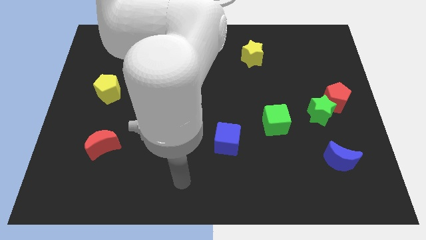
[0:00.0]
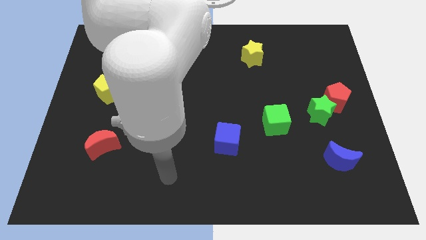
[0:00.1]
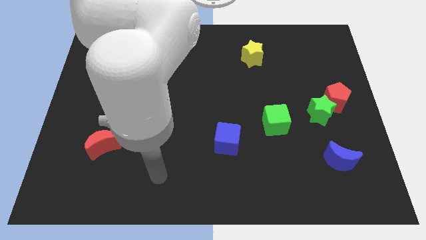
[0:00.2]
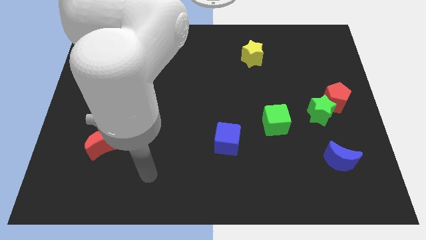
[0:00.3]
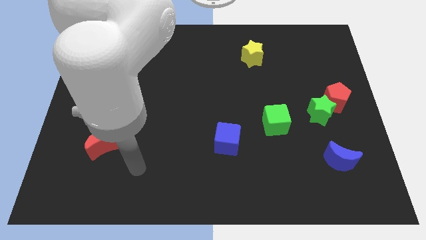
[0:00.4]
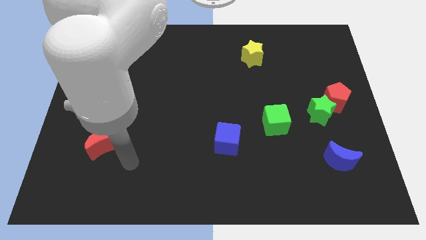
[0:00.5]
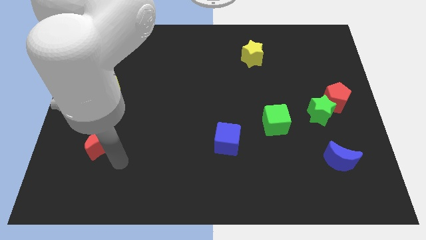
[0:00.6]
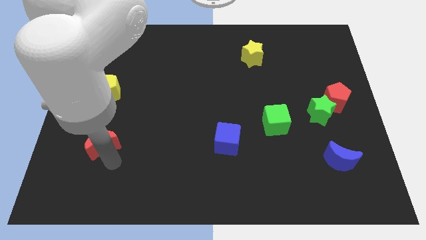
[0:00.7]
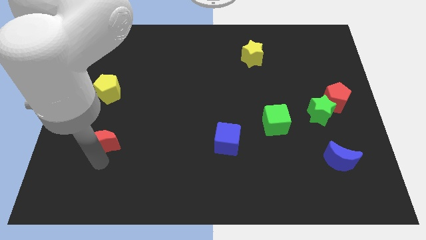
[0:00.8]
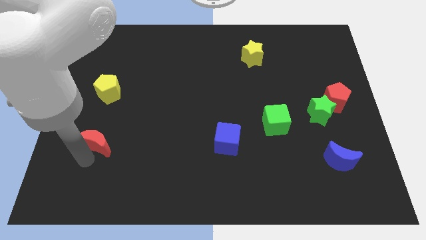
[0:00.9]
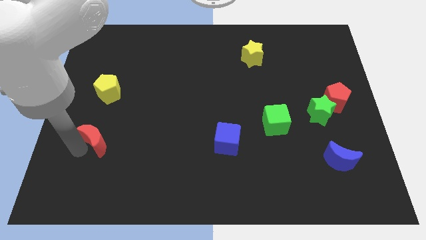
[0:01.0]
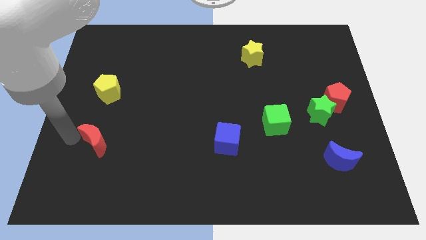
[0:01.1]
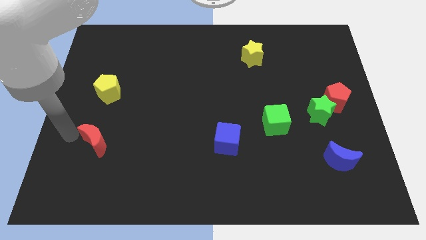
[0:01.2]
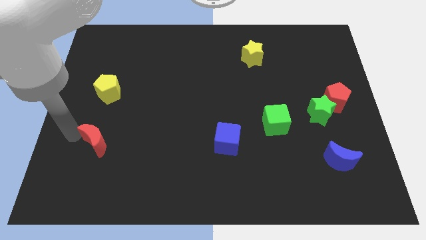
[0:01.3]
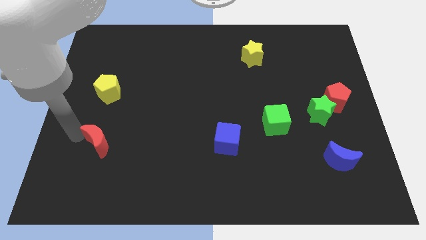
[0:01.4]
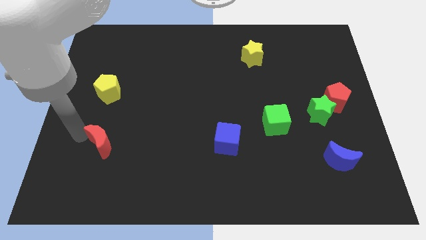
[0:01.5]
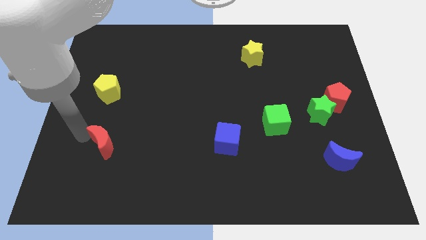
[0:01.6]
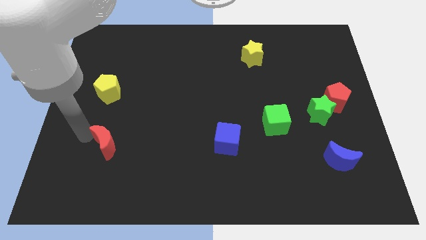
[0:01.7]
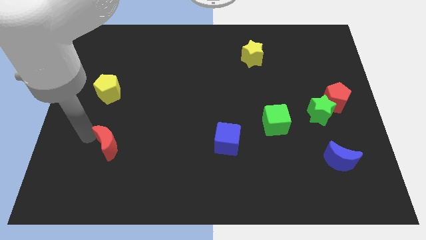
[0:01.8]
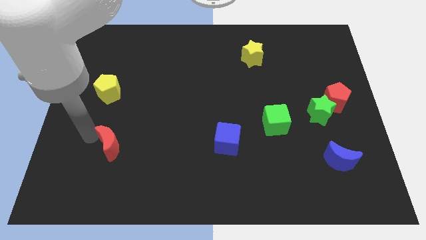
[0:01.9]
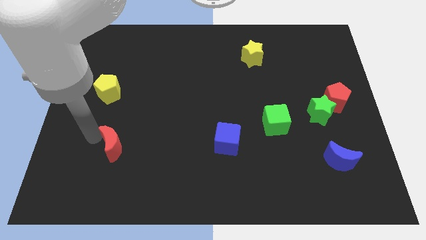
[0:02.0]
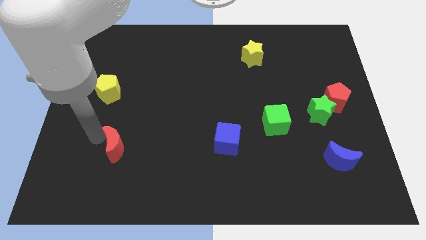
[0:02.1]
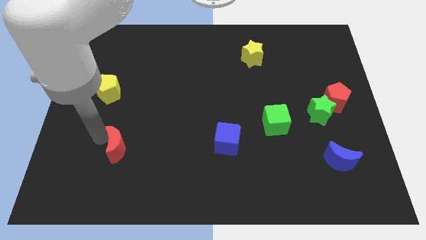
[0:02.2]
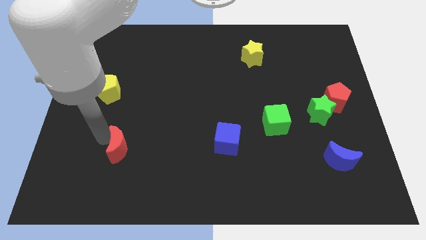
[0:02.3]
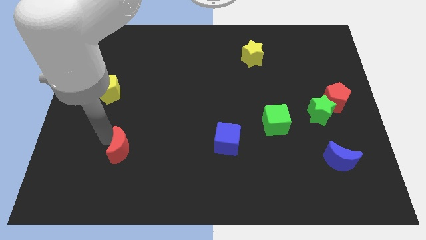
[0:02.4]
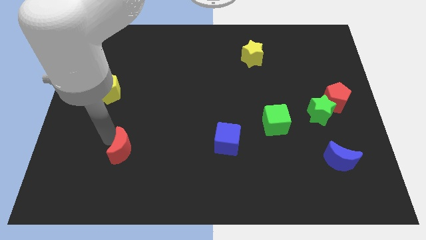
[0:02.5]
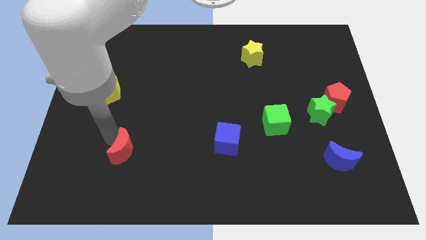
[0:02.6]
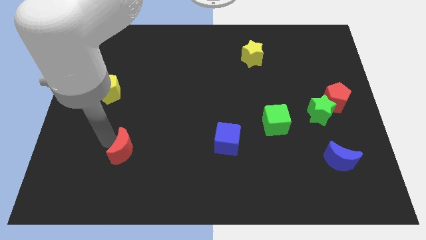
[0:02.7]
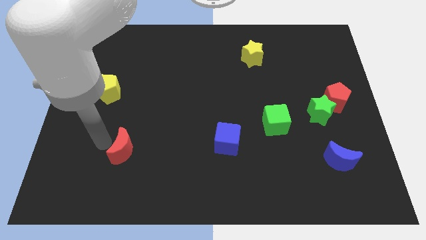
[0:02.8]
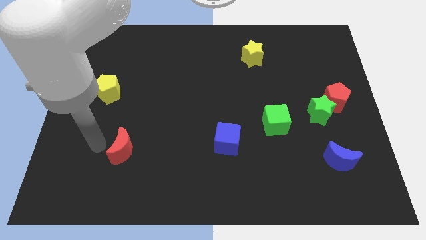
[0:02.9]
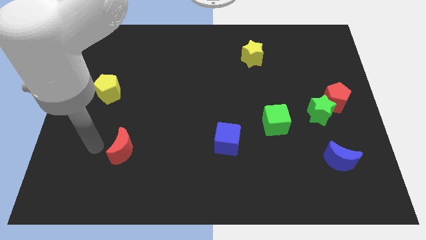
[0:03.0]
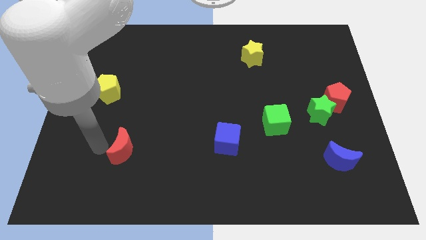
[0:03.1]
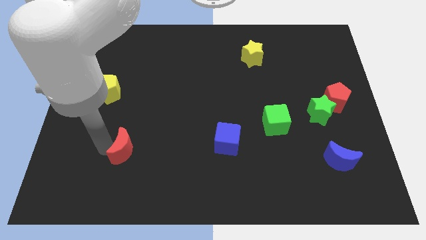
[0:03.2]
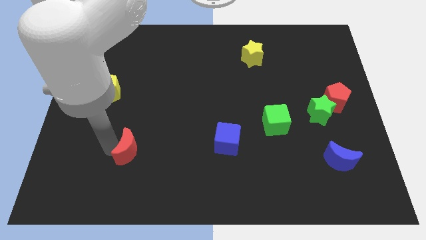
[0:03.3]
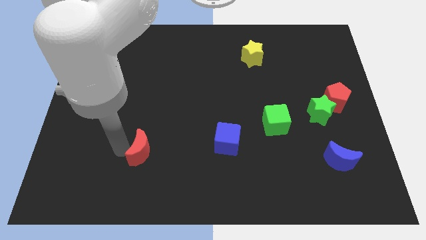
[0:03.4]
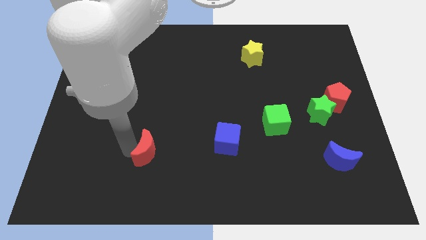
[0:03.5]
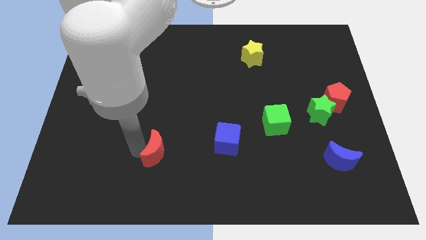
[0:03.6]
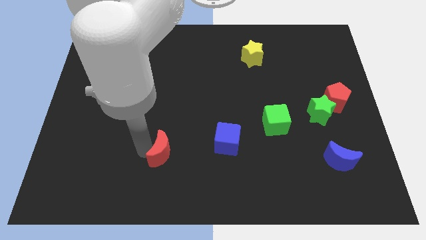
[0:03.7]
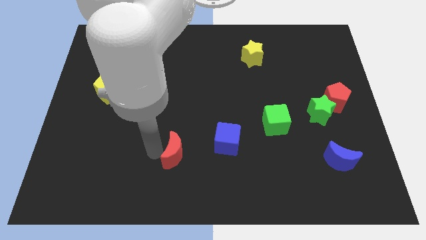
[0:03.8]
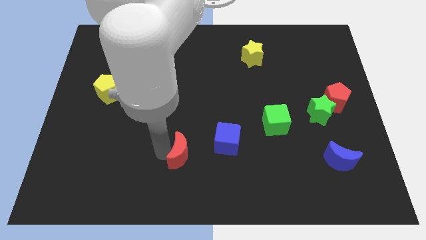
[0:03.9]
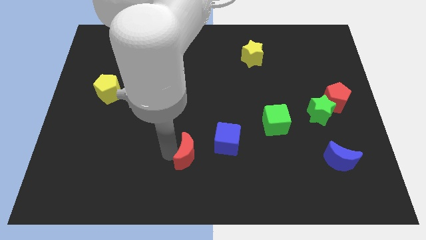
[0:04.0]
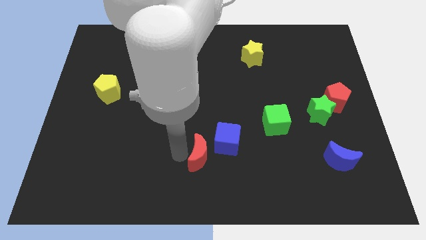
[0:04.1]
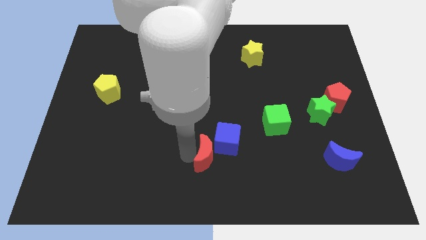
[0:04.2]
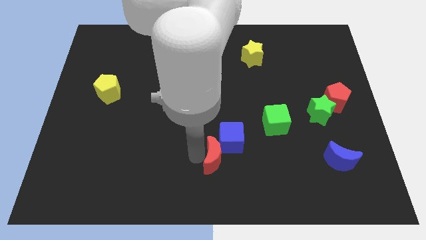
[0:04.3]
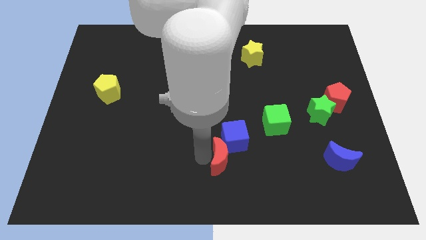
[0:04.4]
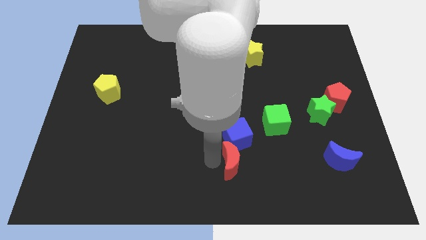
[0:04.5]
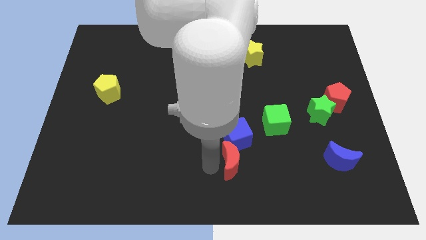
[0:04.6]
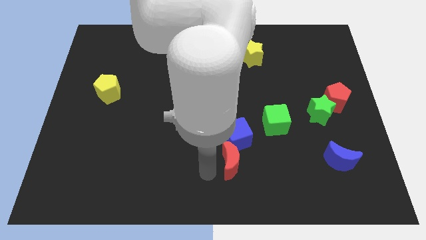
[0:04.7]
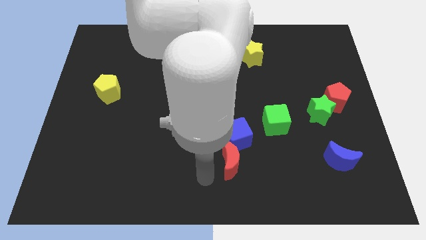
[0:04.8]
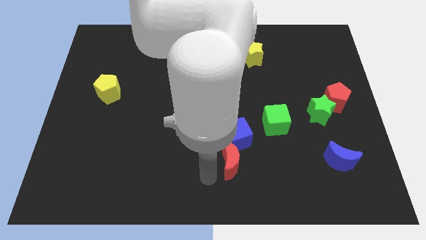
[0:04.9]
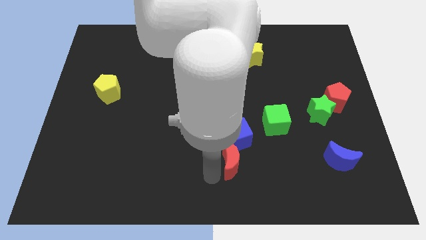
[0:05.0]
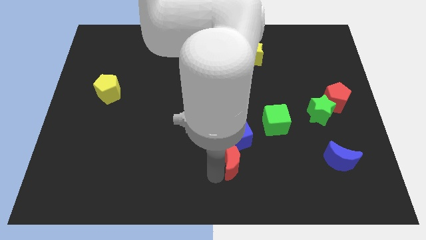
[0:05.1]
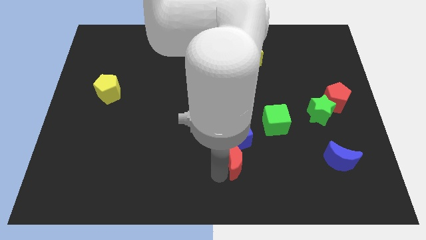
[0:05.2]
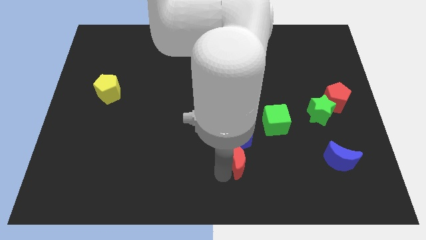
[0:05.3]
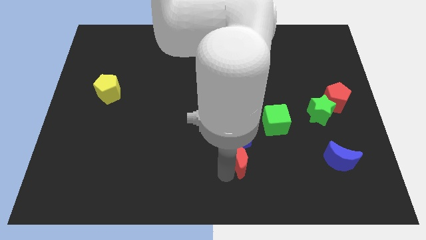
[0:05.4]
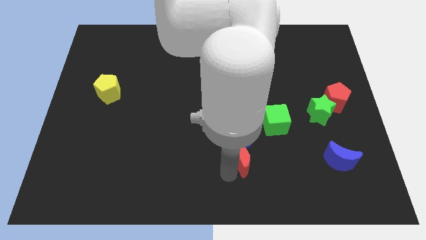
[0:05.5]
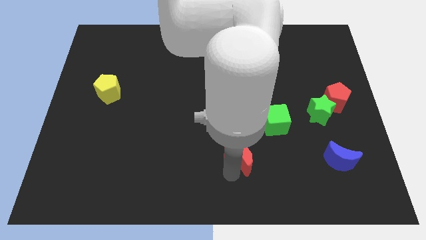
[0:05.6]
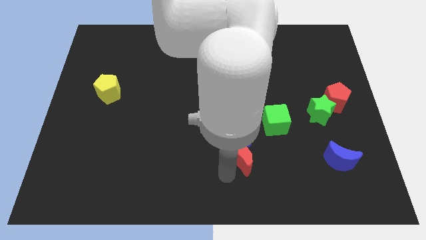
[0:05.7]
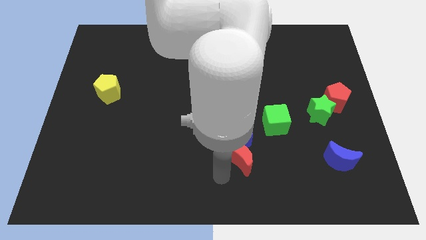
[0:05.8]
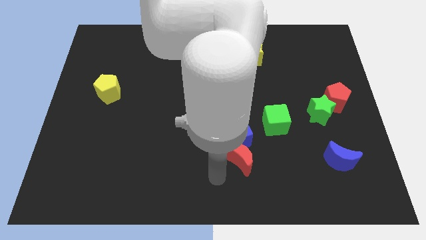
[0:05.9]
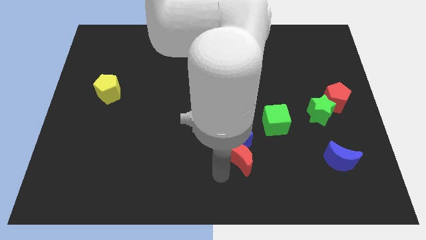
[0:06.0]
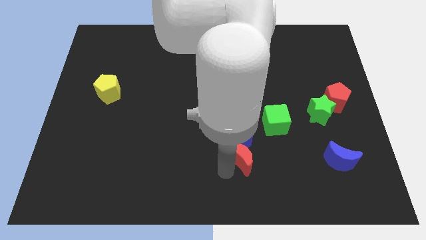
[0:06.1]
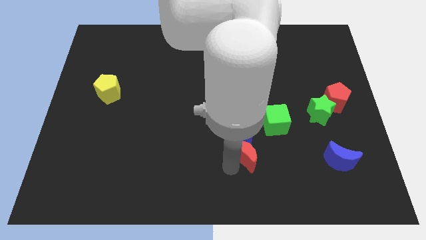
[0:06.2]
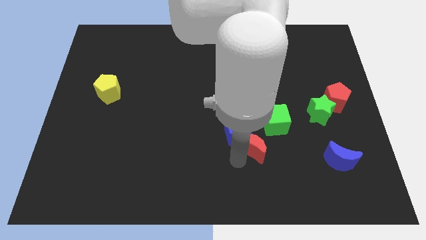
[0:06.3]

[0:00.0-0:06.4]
move the red moon to the right of the blue cube
